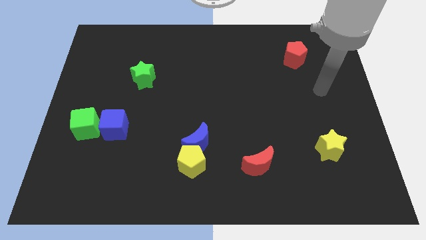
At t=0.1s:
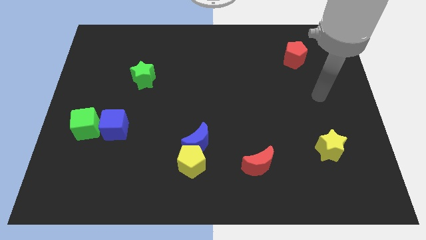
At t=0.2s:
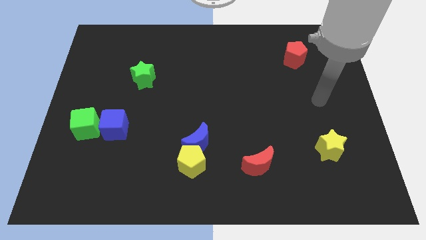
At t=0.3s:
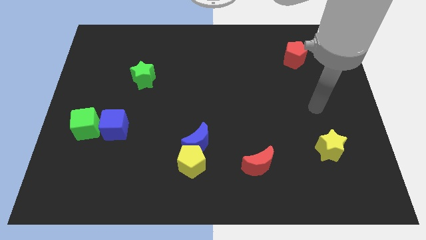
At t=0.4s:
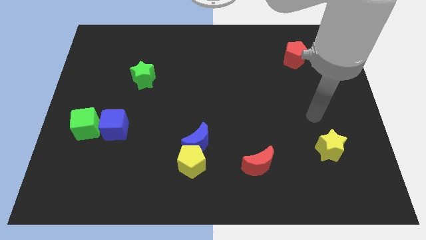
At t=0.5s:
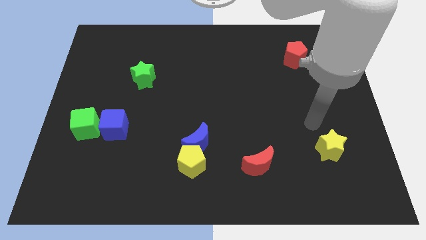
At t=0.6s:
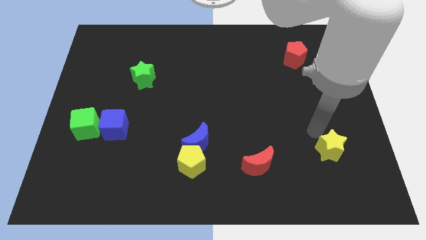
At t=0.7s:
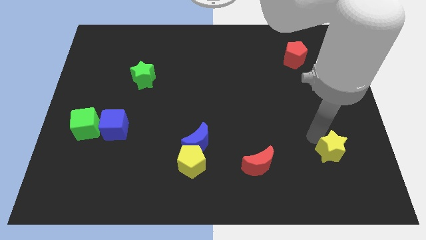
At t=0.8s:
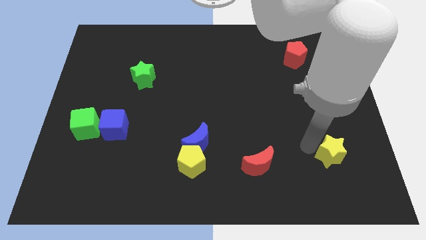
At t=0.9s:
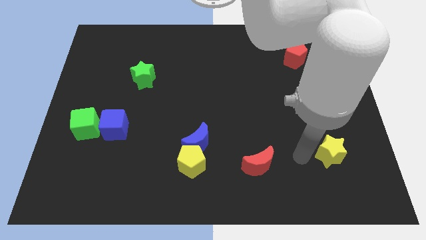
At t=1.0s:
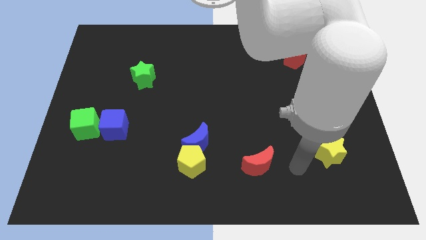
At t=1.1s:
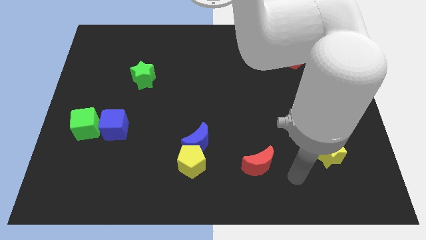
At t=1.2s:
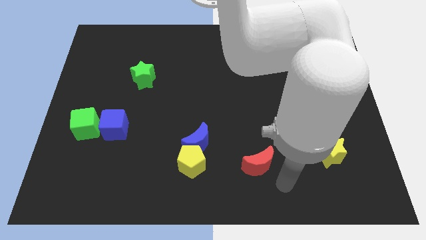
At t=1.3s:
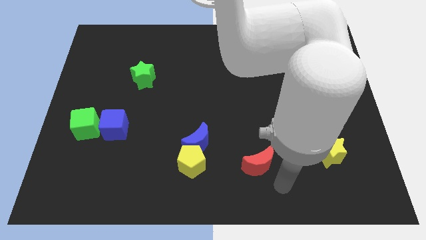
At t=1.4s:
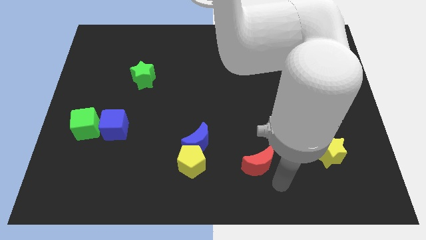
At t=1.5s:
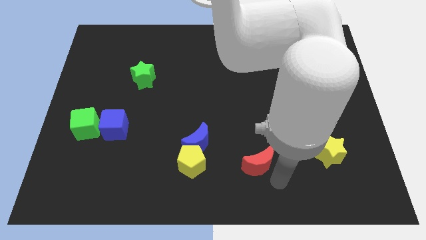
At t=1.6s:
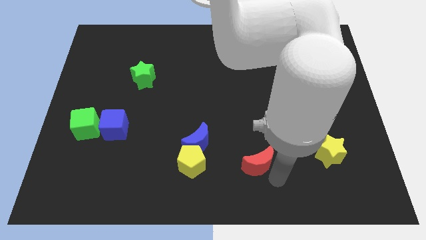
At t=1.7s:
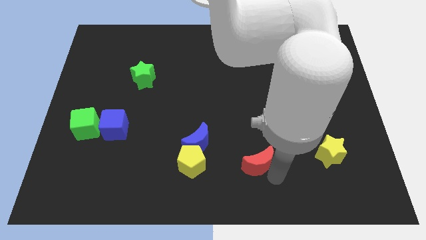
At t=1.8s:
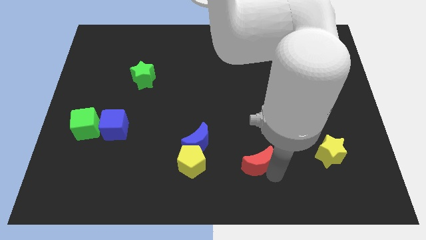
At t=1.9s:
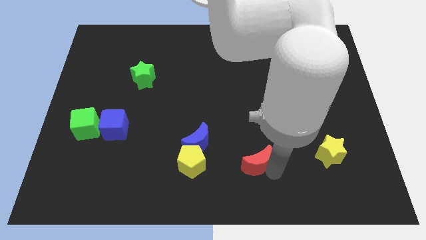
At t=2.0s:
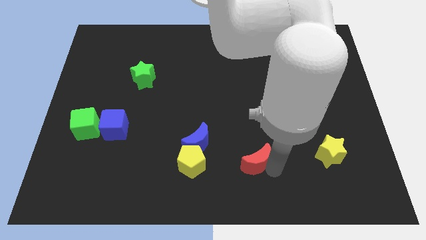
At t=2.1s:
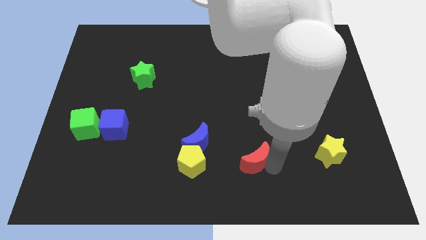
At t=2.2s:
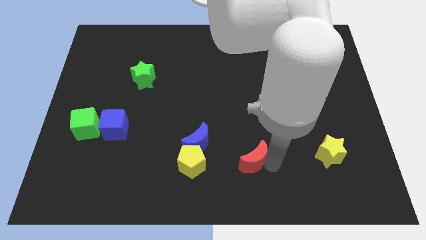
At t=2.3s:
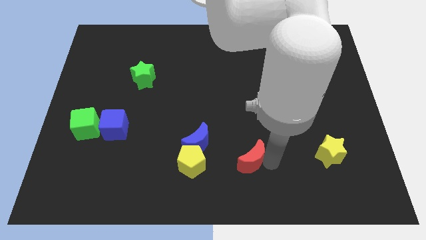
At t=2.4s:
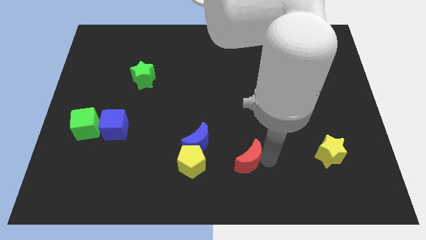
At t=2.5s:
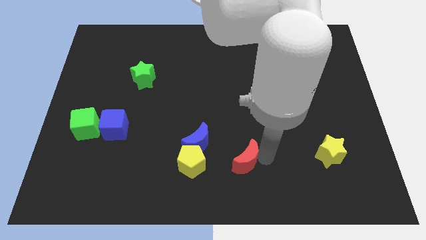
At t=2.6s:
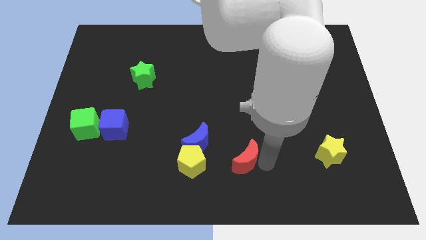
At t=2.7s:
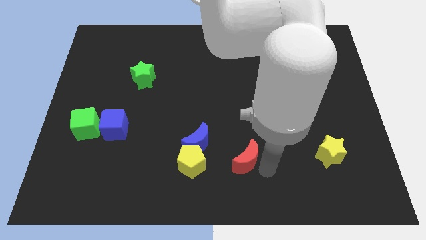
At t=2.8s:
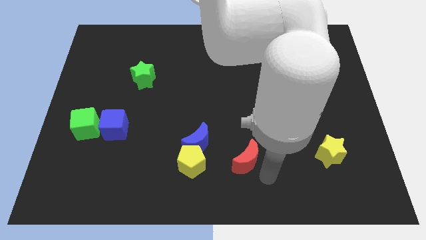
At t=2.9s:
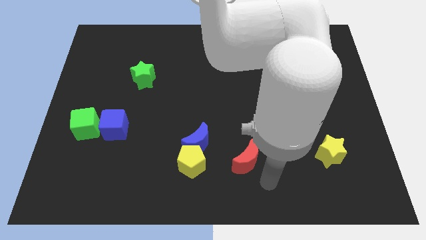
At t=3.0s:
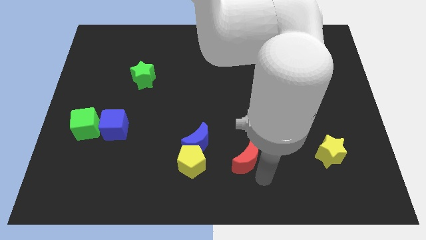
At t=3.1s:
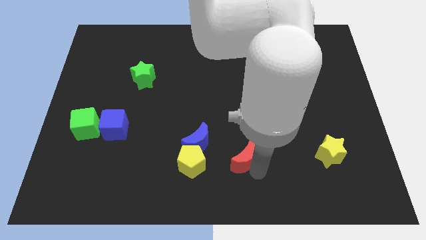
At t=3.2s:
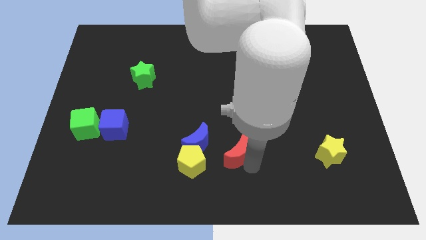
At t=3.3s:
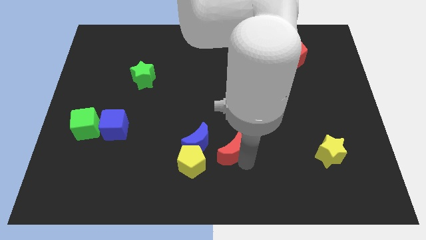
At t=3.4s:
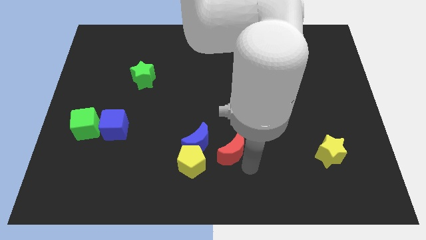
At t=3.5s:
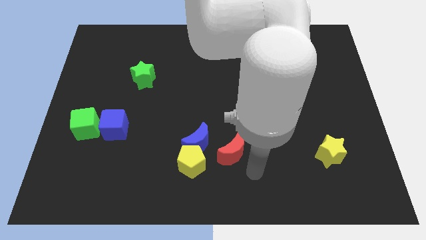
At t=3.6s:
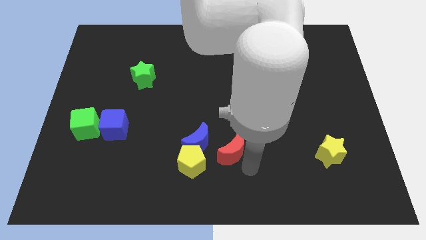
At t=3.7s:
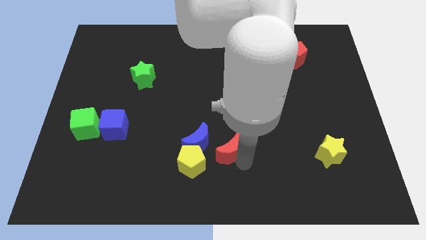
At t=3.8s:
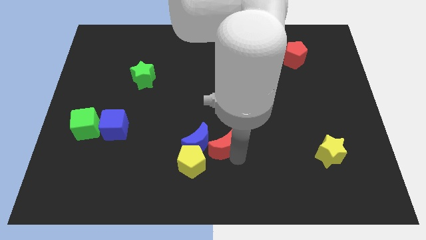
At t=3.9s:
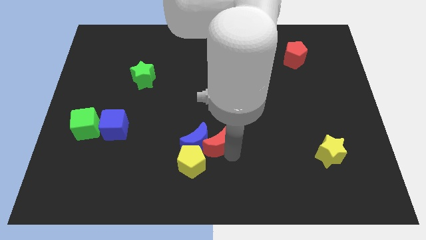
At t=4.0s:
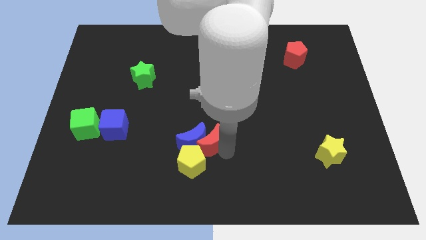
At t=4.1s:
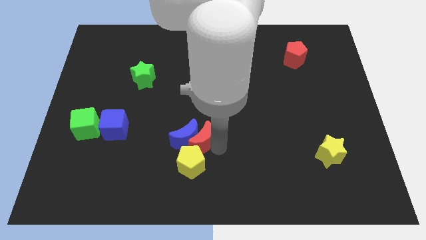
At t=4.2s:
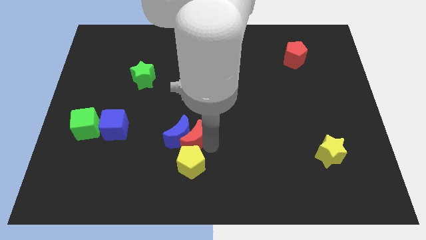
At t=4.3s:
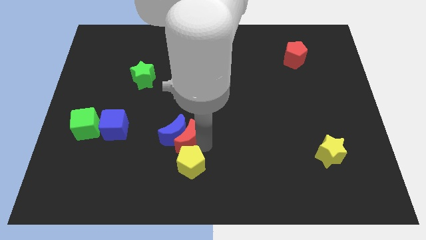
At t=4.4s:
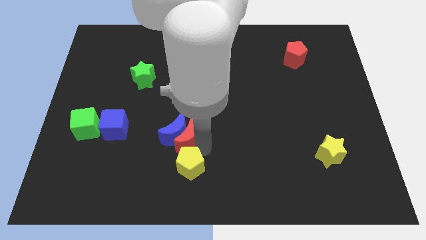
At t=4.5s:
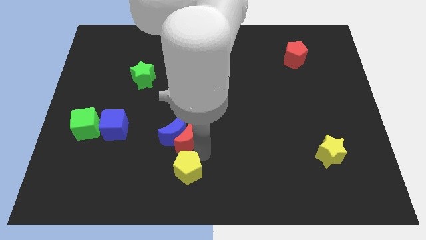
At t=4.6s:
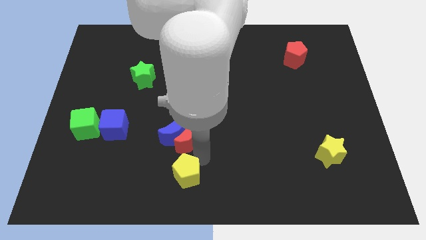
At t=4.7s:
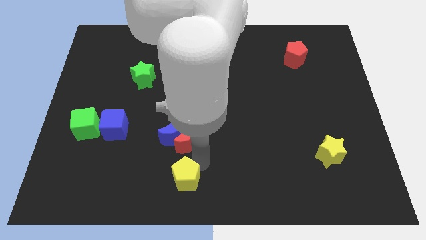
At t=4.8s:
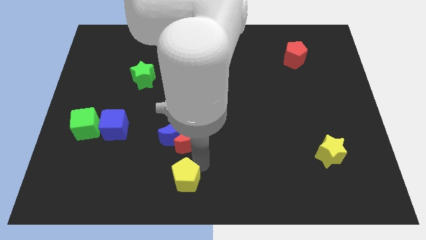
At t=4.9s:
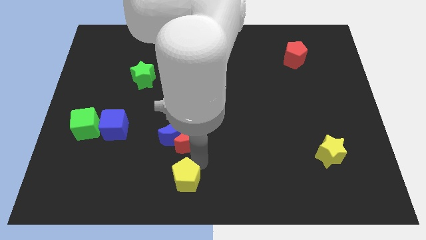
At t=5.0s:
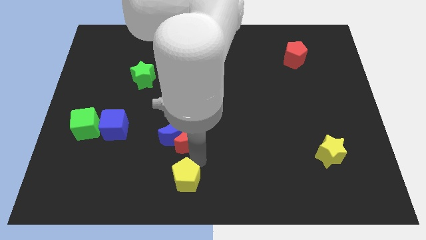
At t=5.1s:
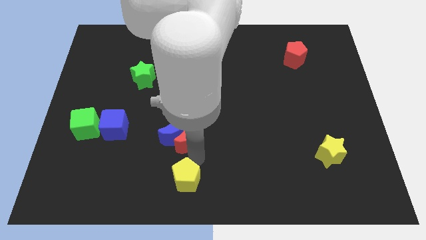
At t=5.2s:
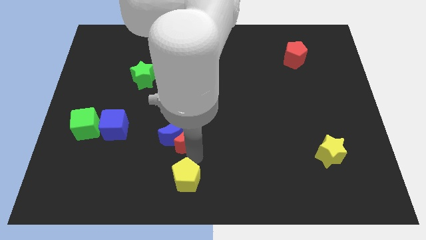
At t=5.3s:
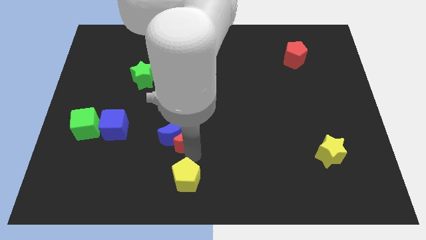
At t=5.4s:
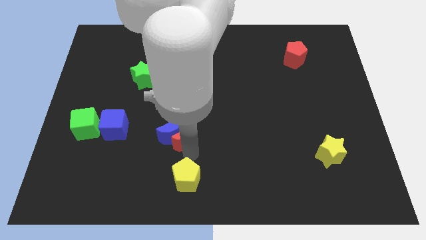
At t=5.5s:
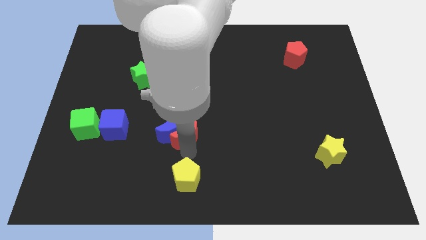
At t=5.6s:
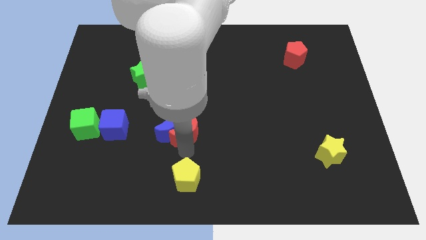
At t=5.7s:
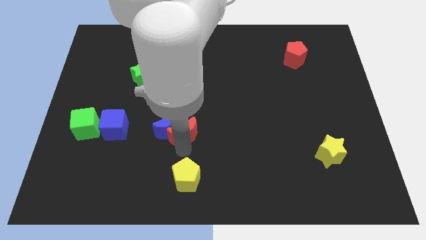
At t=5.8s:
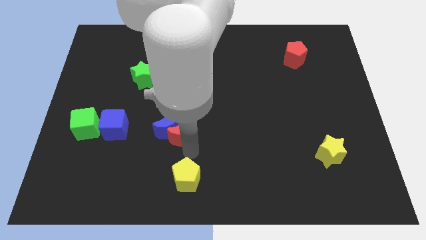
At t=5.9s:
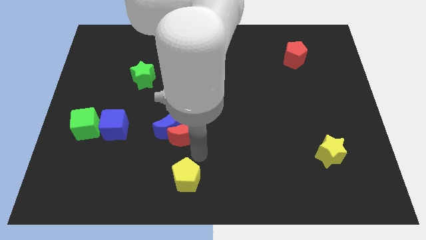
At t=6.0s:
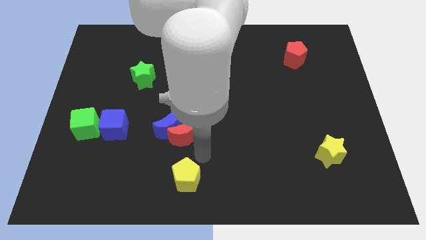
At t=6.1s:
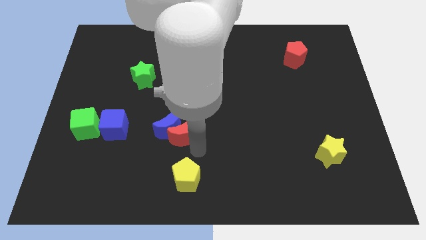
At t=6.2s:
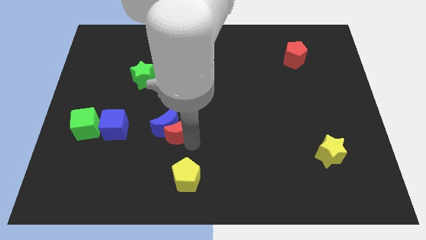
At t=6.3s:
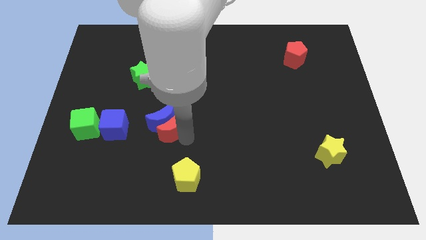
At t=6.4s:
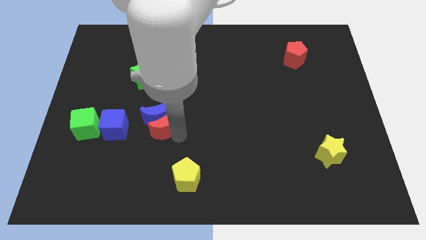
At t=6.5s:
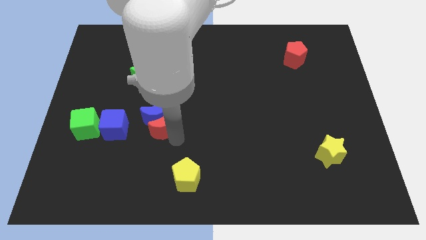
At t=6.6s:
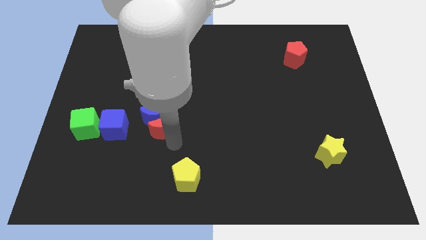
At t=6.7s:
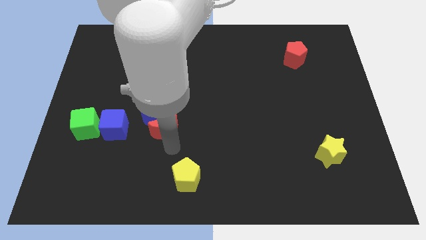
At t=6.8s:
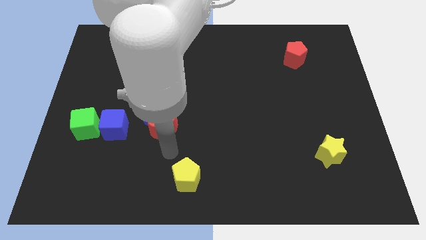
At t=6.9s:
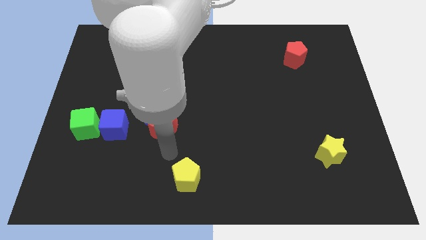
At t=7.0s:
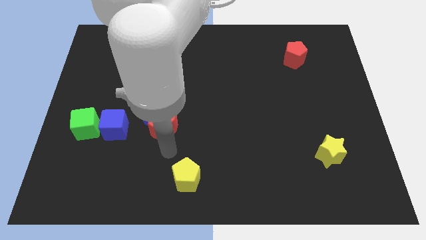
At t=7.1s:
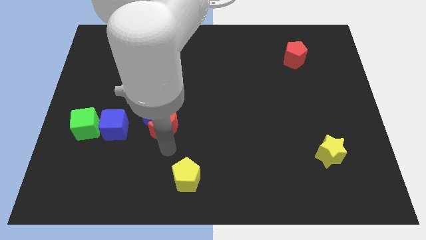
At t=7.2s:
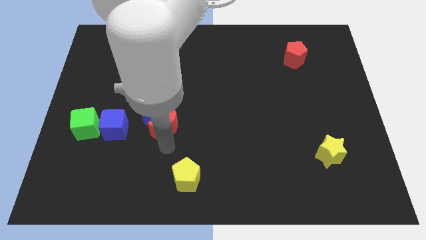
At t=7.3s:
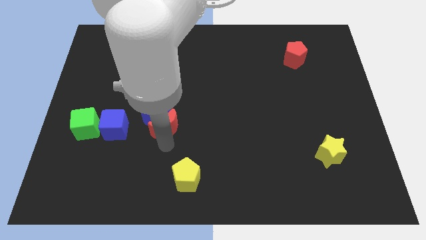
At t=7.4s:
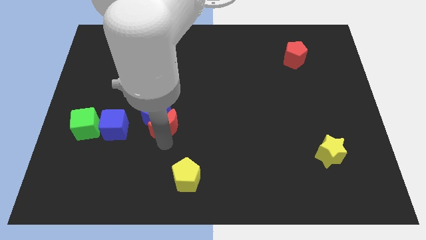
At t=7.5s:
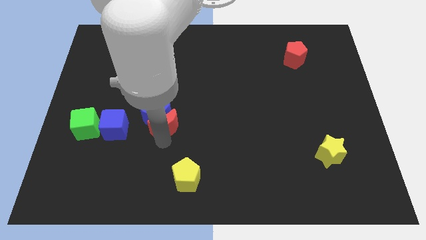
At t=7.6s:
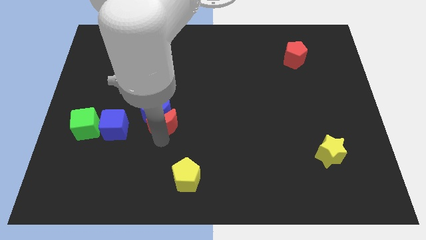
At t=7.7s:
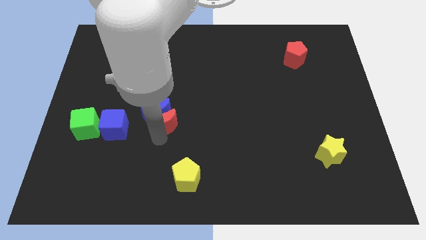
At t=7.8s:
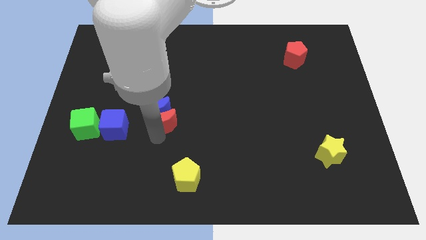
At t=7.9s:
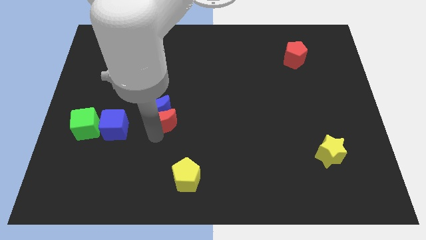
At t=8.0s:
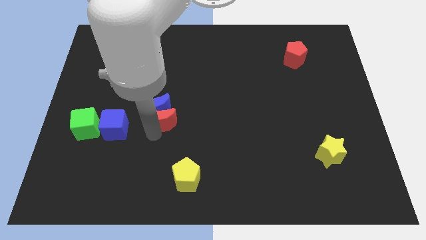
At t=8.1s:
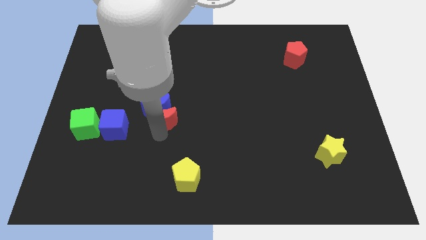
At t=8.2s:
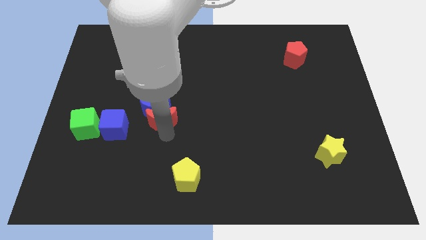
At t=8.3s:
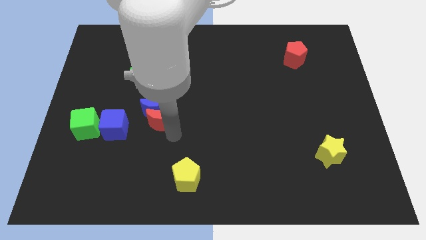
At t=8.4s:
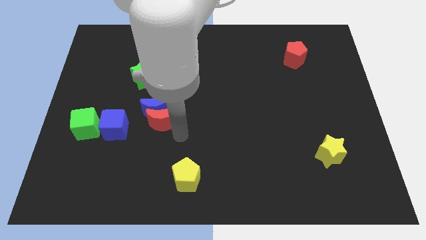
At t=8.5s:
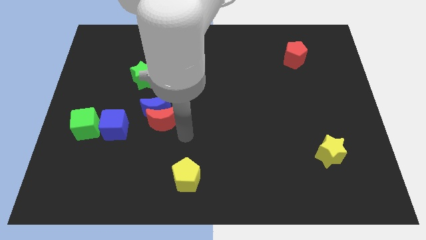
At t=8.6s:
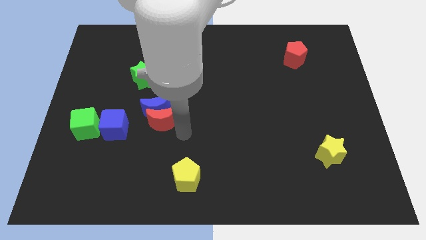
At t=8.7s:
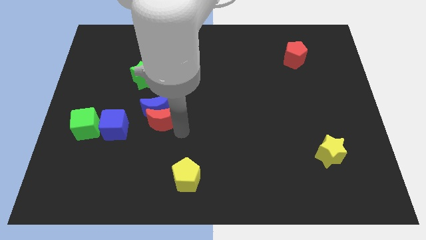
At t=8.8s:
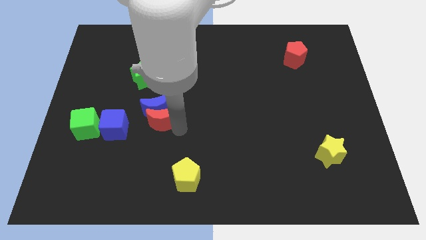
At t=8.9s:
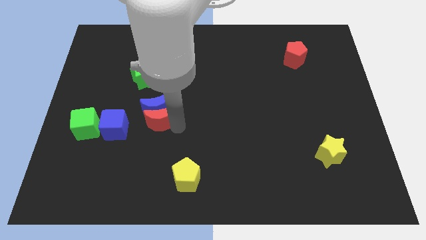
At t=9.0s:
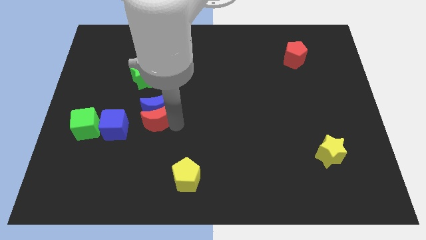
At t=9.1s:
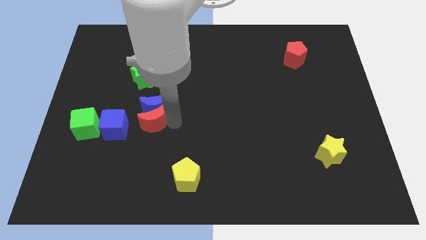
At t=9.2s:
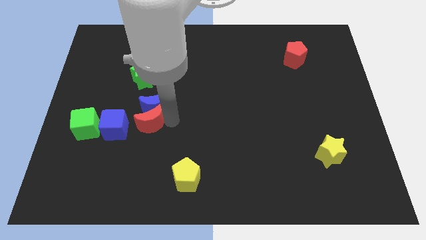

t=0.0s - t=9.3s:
push the red moon to the top right side of the blue cube
